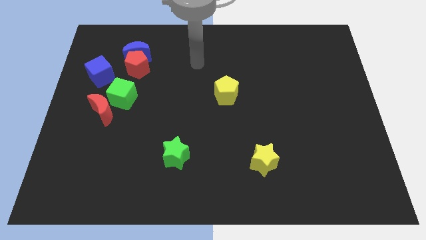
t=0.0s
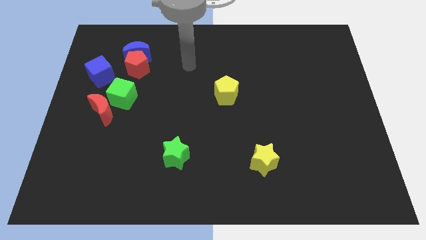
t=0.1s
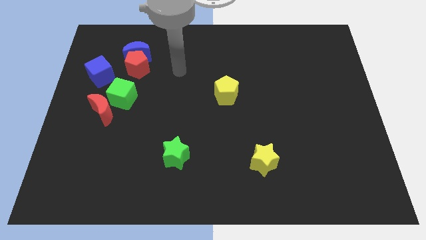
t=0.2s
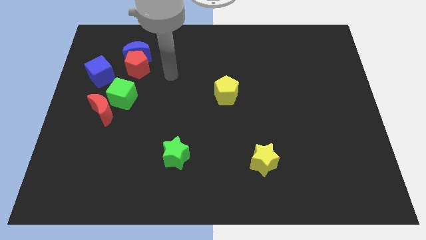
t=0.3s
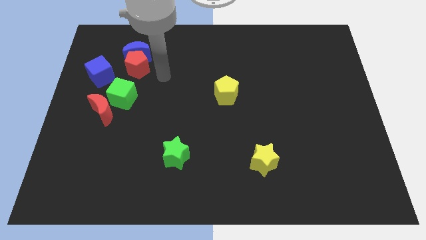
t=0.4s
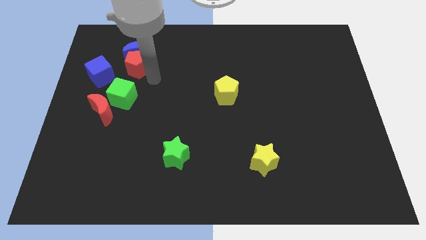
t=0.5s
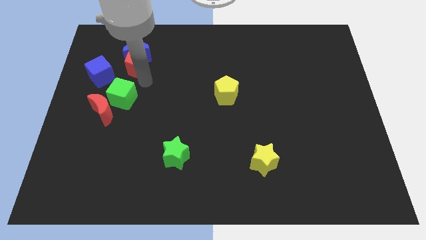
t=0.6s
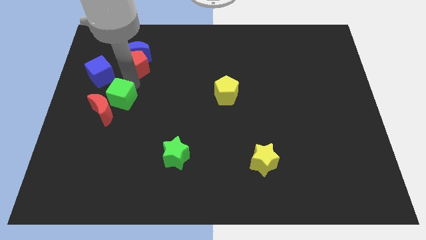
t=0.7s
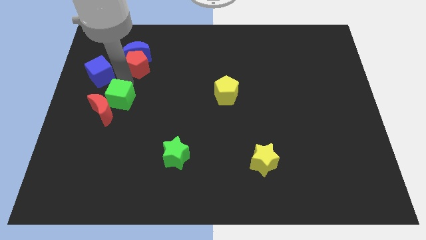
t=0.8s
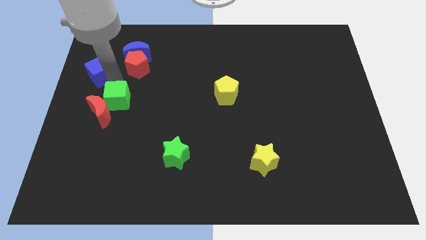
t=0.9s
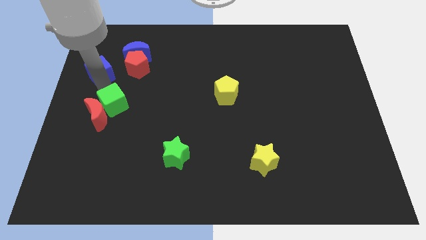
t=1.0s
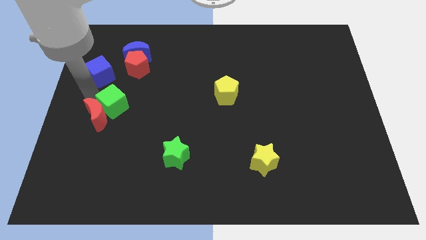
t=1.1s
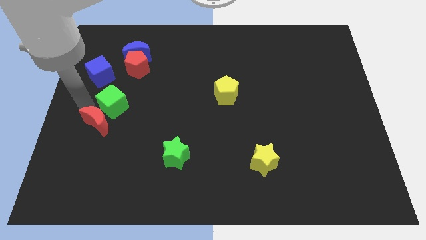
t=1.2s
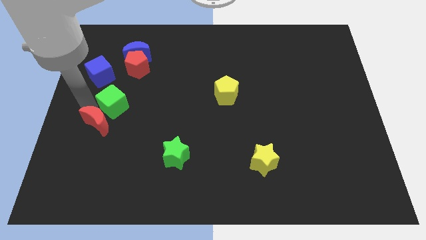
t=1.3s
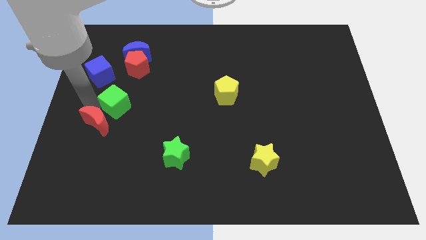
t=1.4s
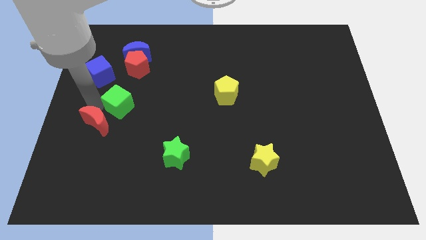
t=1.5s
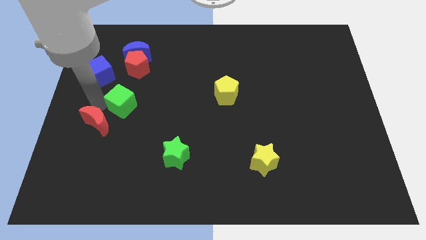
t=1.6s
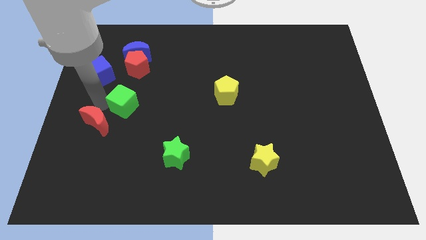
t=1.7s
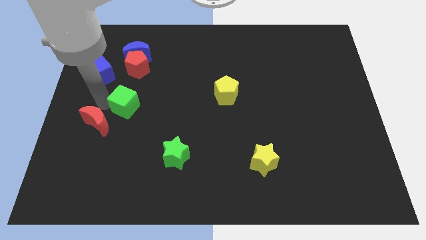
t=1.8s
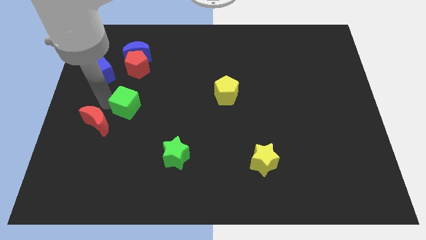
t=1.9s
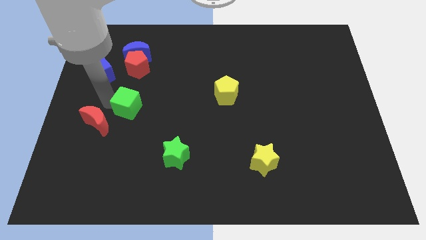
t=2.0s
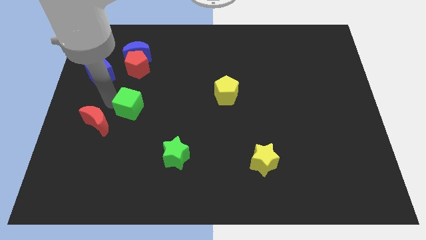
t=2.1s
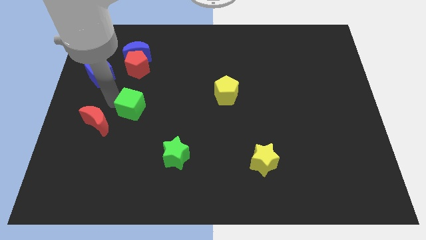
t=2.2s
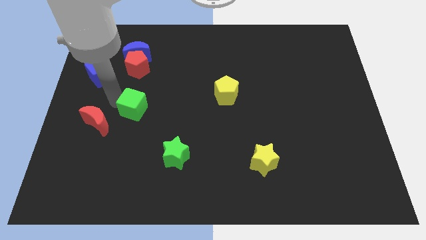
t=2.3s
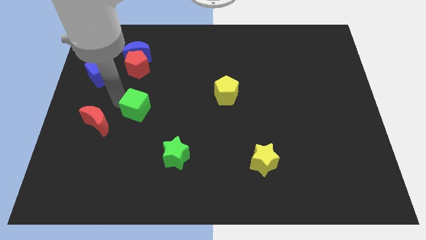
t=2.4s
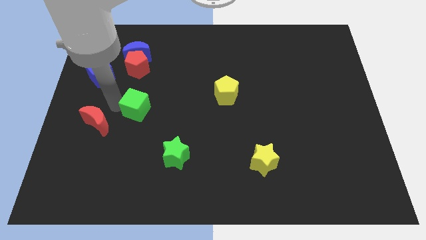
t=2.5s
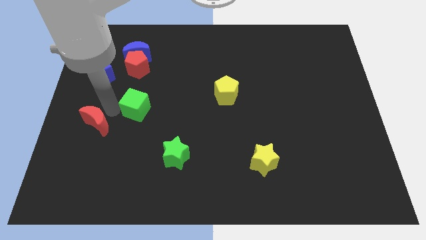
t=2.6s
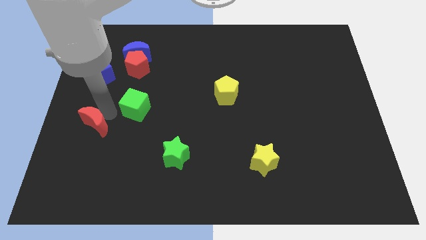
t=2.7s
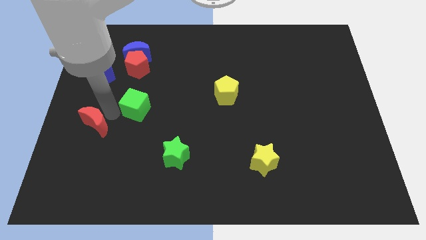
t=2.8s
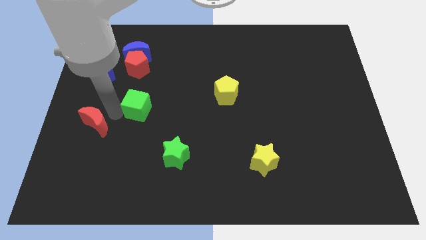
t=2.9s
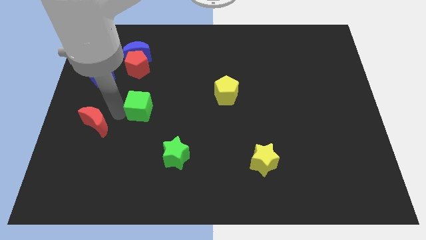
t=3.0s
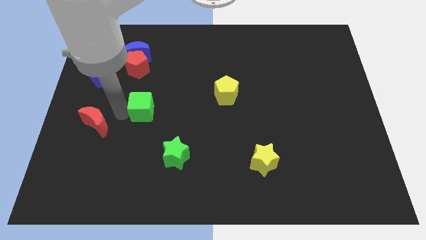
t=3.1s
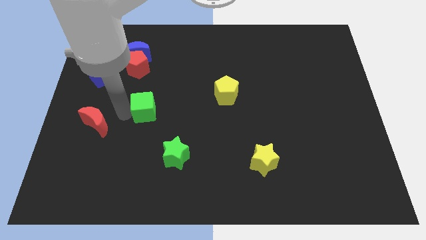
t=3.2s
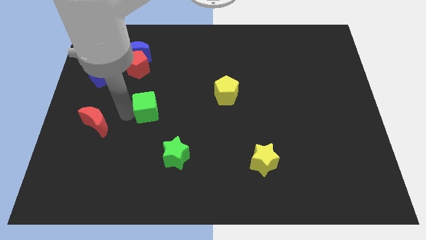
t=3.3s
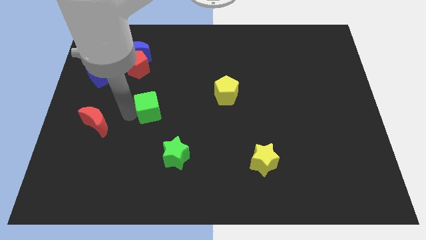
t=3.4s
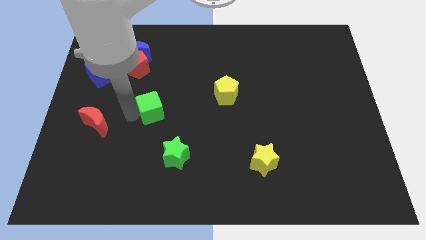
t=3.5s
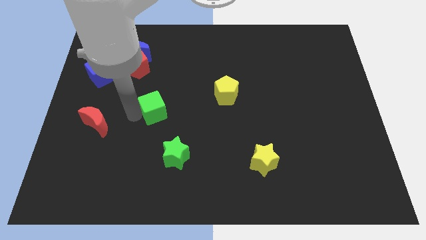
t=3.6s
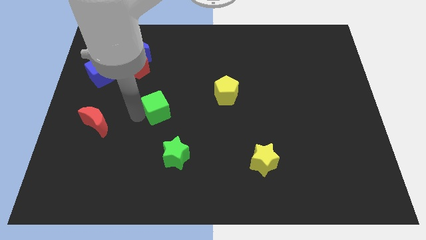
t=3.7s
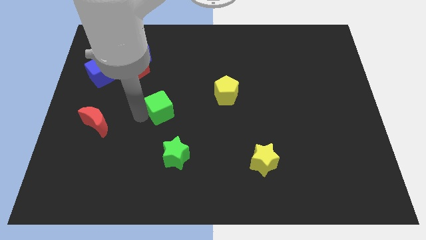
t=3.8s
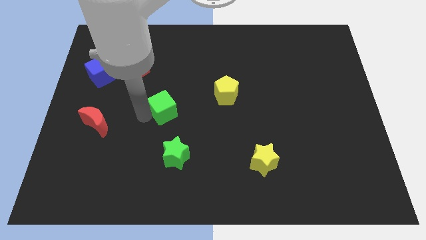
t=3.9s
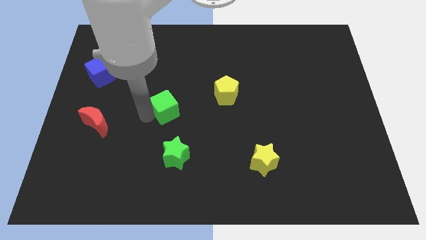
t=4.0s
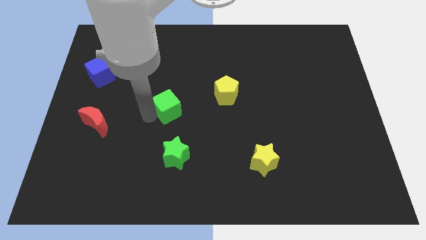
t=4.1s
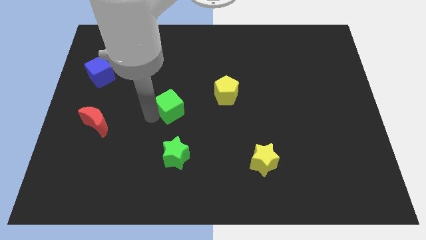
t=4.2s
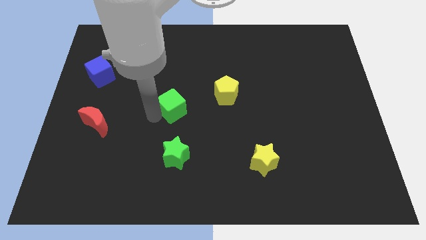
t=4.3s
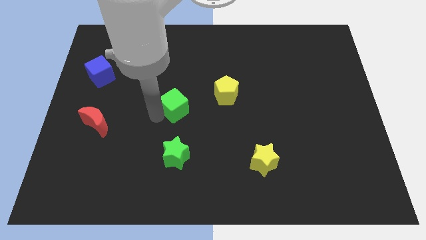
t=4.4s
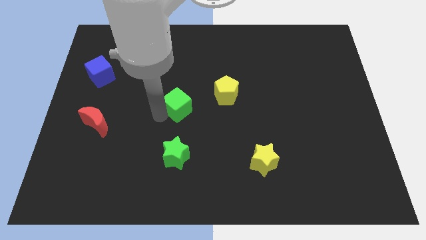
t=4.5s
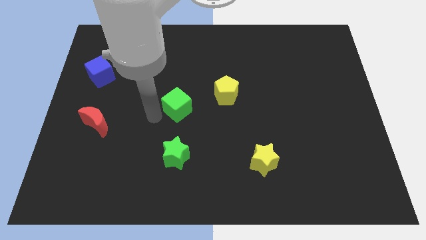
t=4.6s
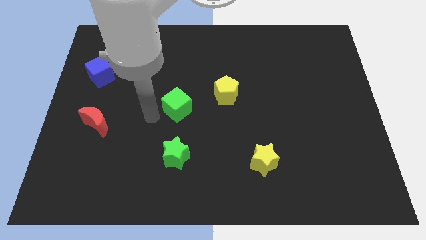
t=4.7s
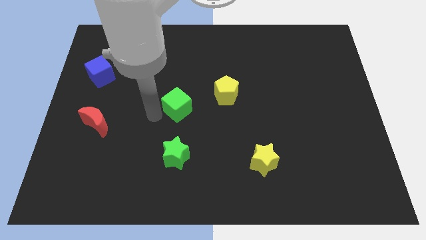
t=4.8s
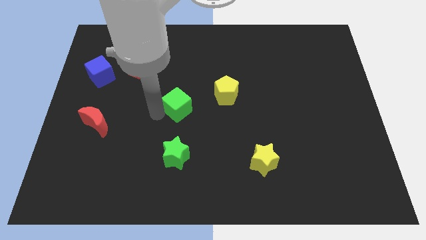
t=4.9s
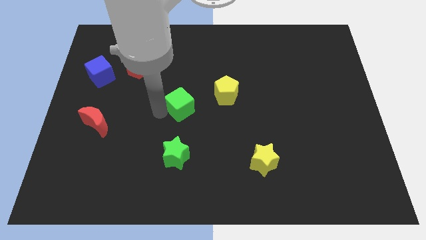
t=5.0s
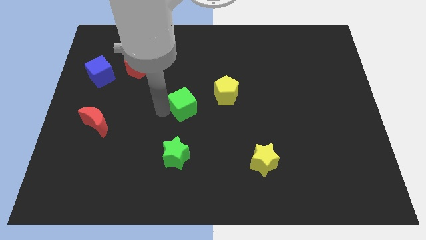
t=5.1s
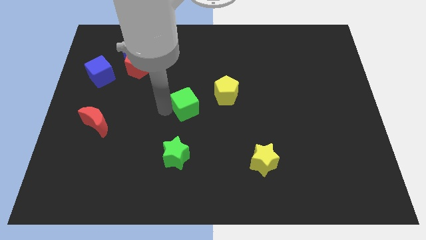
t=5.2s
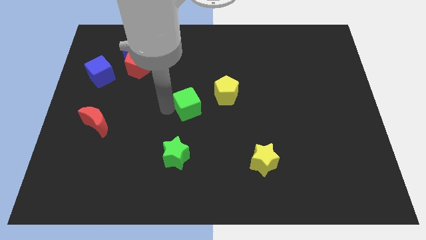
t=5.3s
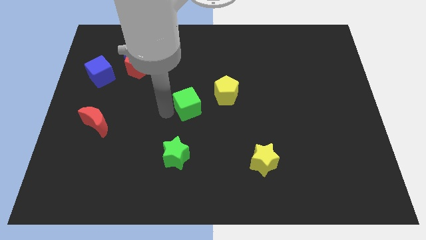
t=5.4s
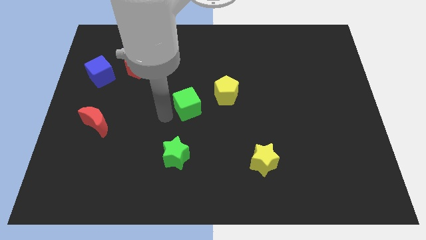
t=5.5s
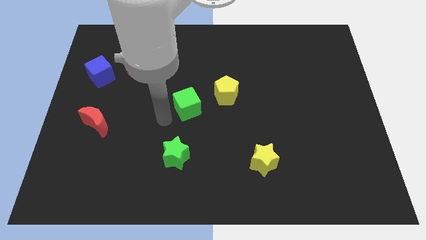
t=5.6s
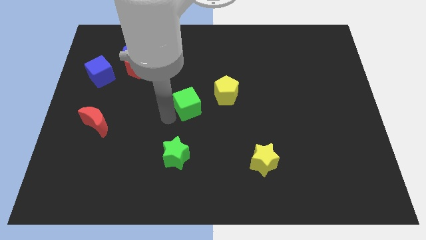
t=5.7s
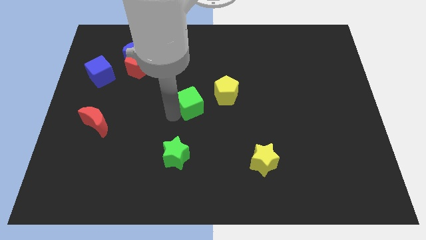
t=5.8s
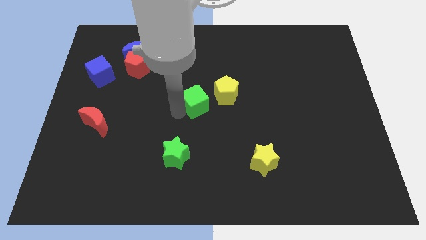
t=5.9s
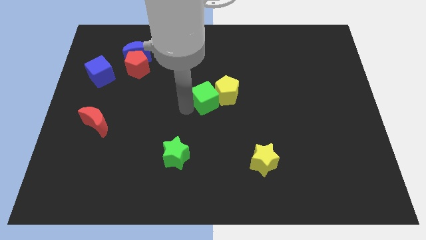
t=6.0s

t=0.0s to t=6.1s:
slide the green cube next to the yellow pentagon

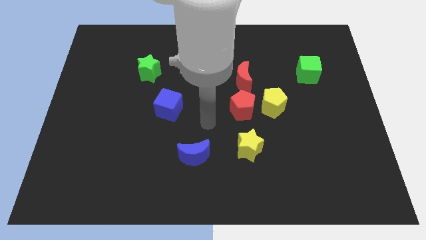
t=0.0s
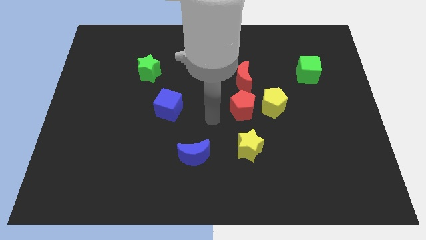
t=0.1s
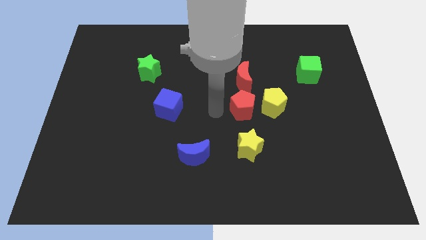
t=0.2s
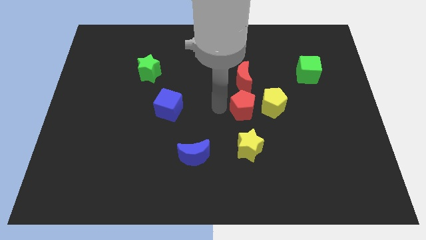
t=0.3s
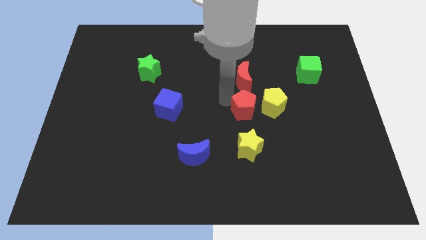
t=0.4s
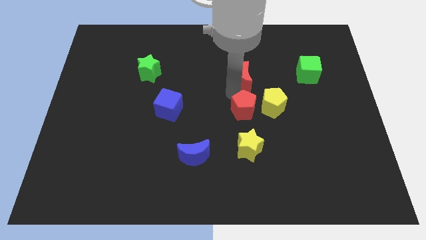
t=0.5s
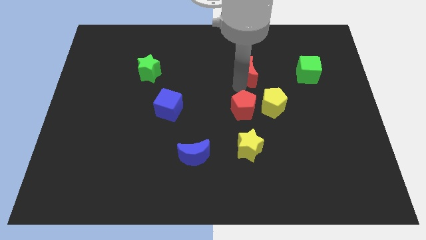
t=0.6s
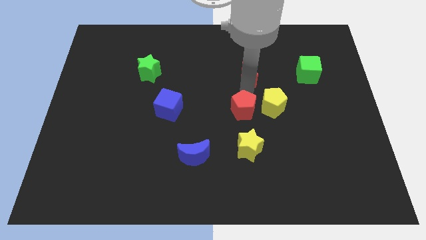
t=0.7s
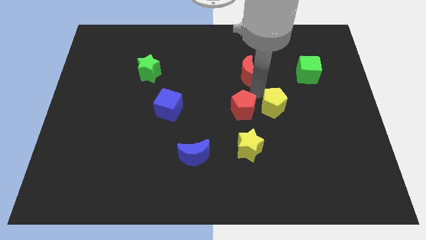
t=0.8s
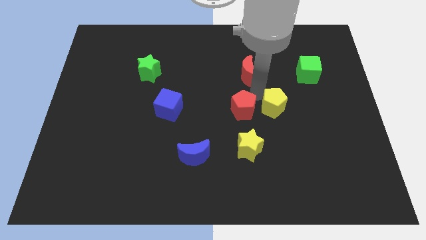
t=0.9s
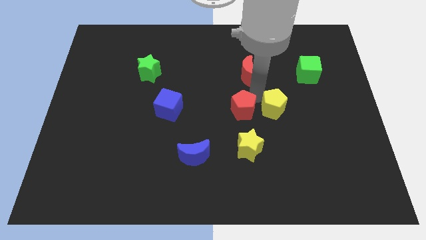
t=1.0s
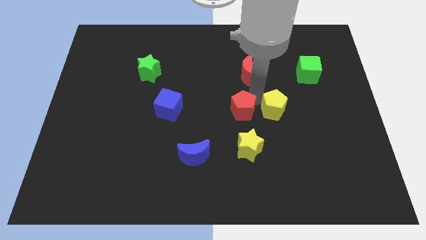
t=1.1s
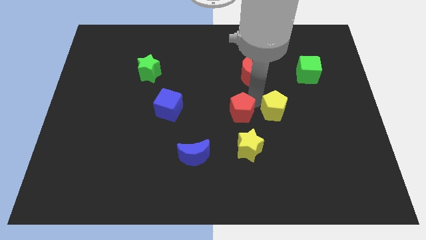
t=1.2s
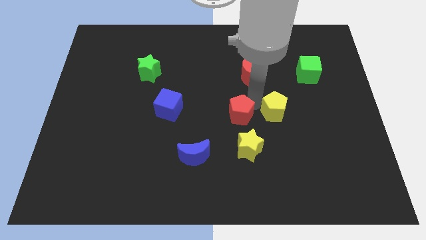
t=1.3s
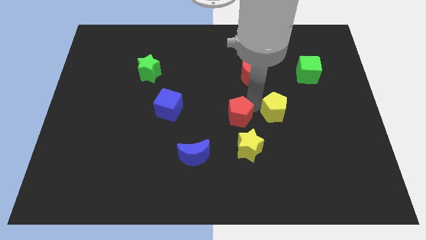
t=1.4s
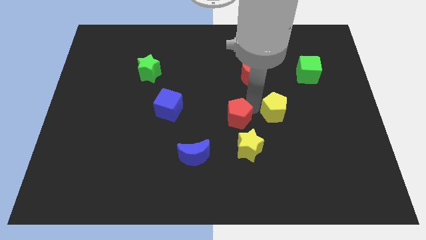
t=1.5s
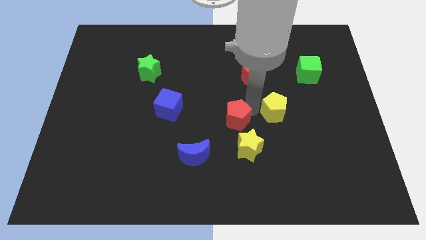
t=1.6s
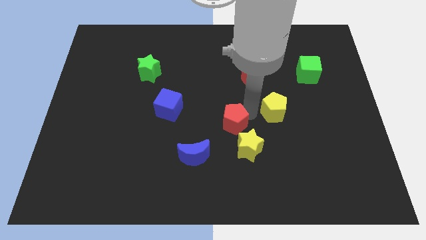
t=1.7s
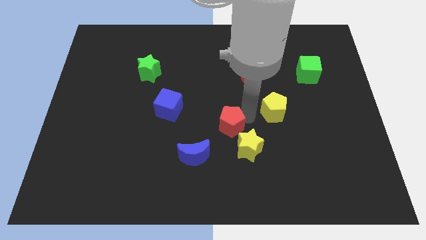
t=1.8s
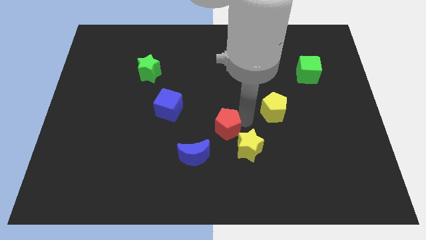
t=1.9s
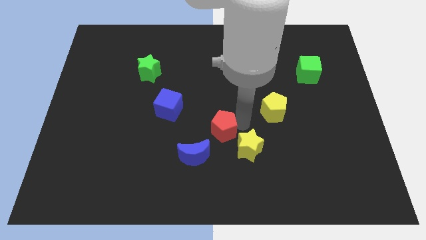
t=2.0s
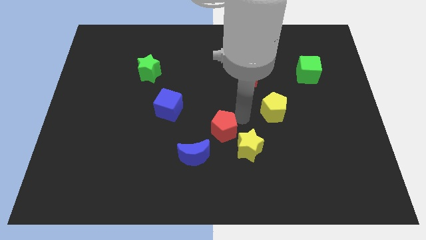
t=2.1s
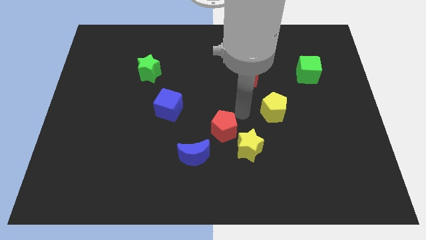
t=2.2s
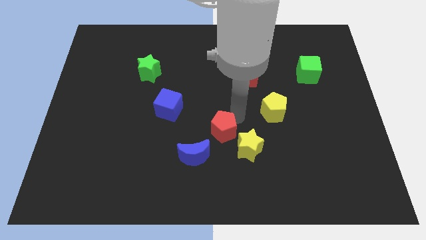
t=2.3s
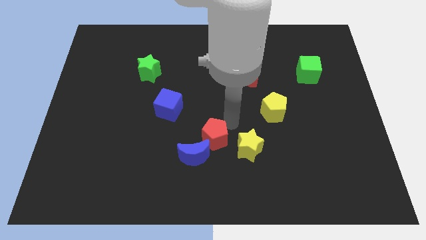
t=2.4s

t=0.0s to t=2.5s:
move the red pentagon towards the blue moon
